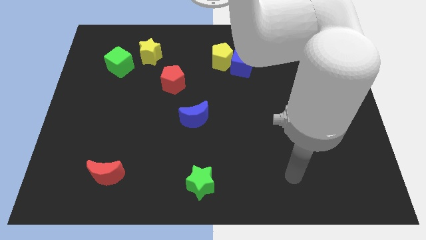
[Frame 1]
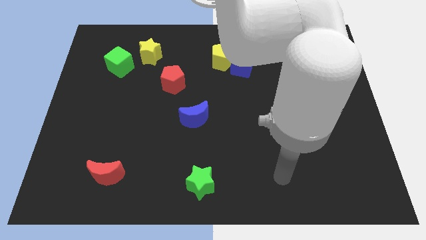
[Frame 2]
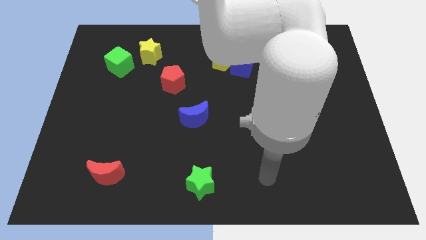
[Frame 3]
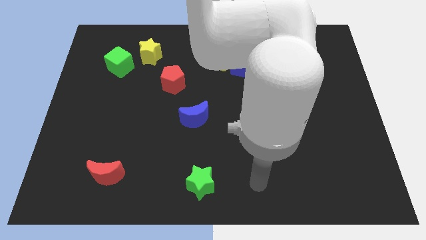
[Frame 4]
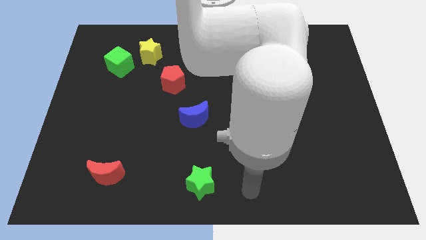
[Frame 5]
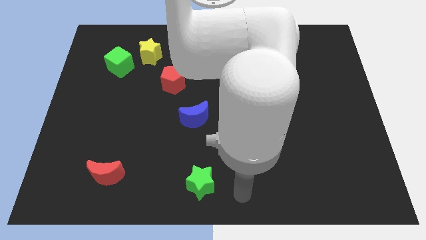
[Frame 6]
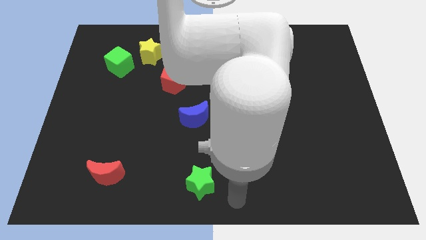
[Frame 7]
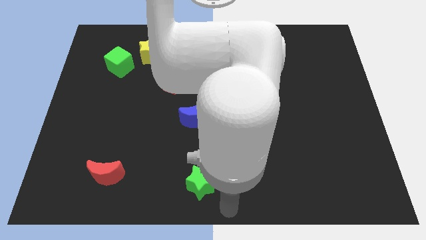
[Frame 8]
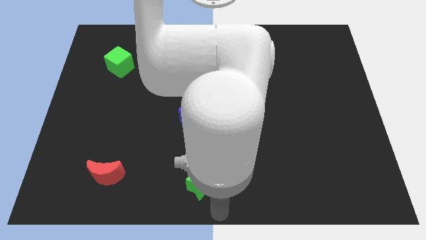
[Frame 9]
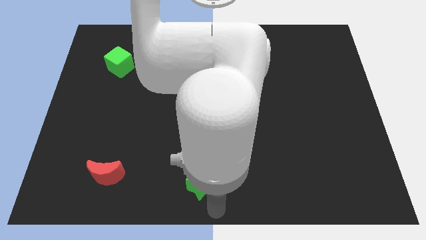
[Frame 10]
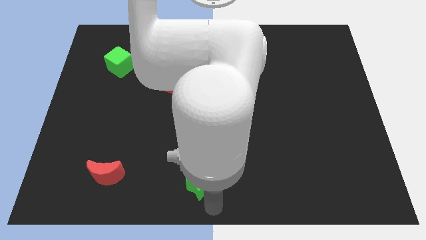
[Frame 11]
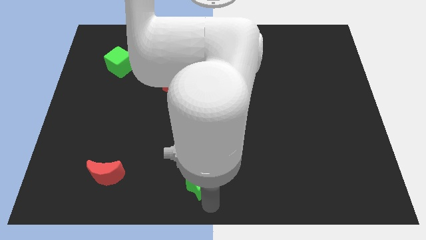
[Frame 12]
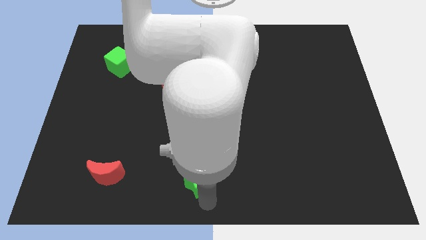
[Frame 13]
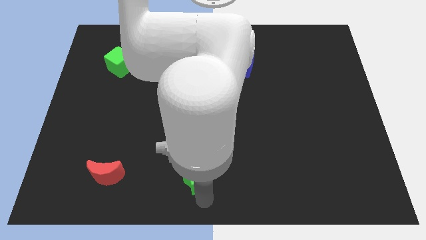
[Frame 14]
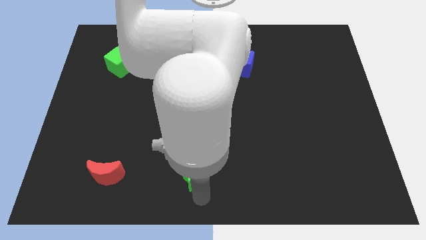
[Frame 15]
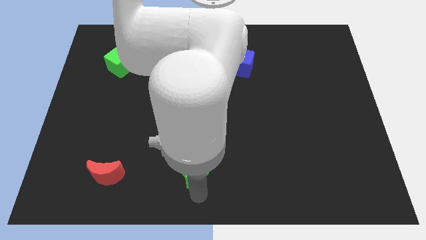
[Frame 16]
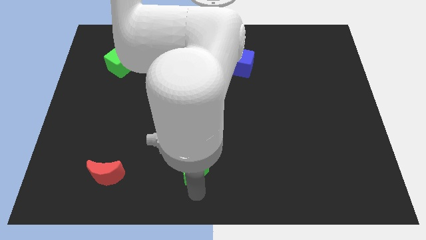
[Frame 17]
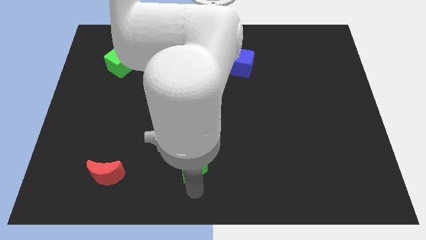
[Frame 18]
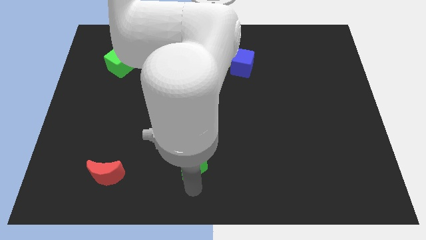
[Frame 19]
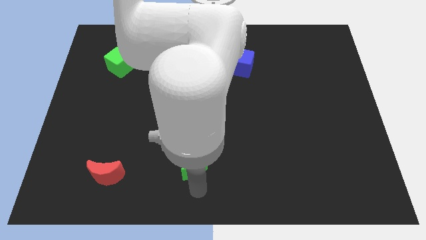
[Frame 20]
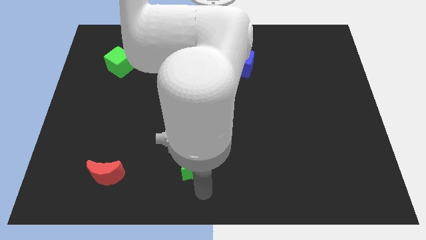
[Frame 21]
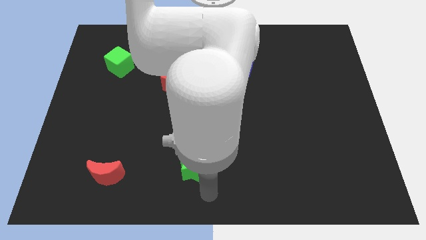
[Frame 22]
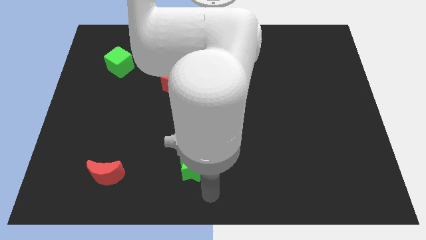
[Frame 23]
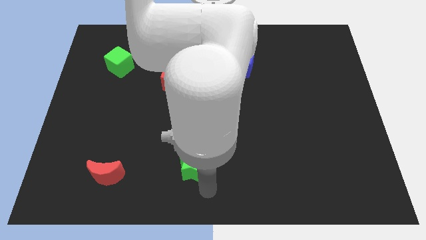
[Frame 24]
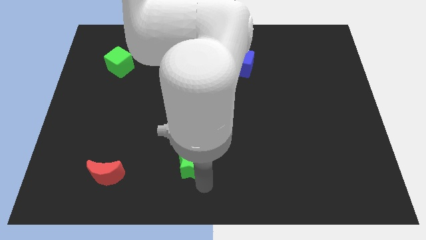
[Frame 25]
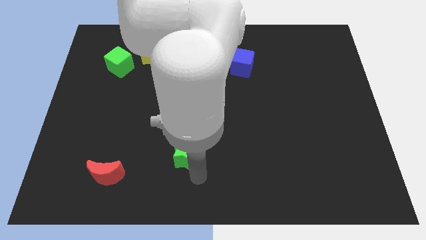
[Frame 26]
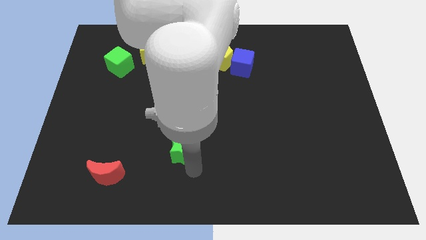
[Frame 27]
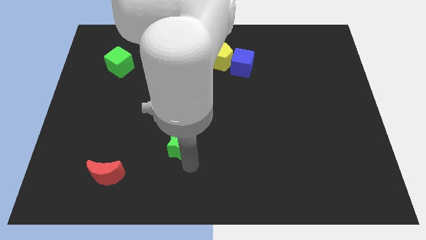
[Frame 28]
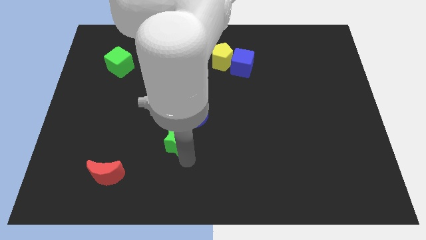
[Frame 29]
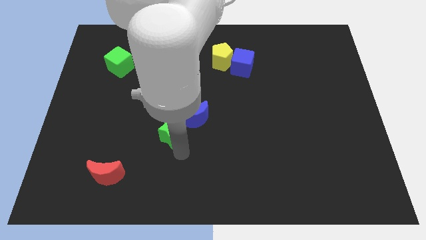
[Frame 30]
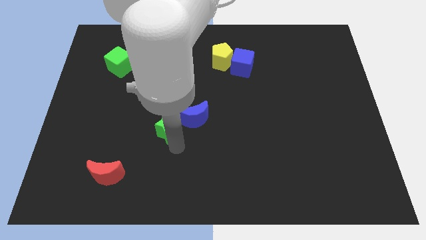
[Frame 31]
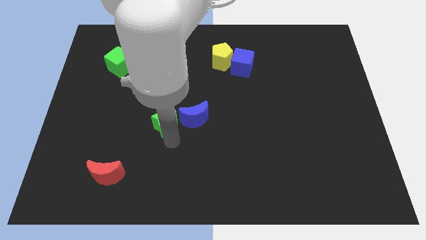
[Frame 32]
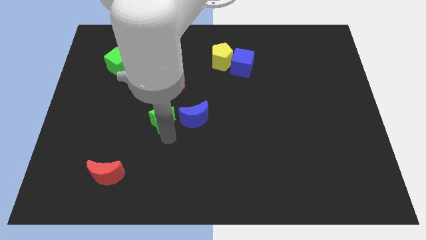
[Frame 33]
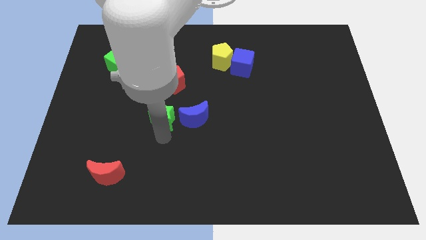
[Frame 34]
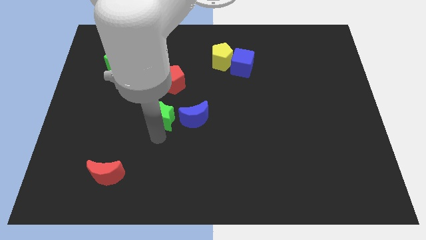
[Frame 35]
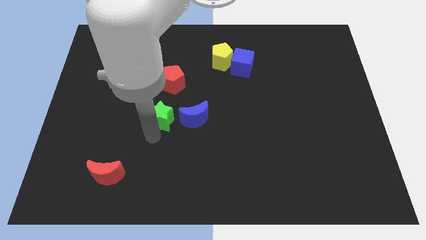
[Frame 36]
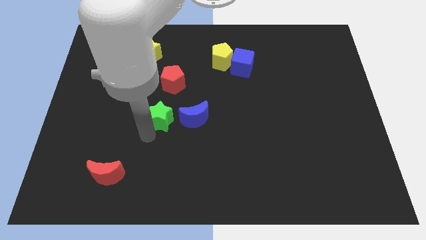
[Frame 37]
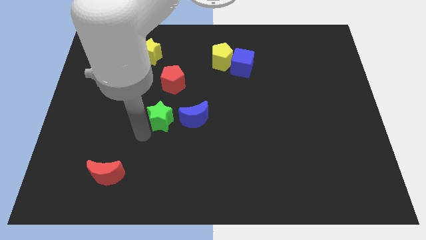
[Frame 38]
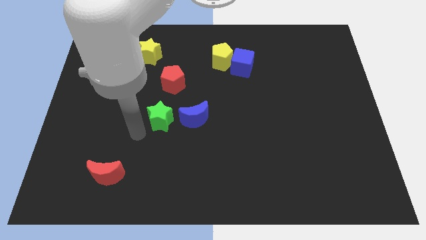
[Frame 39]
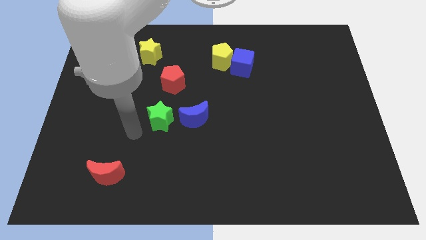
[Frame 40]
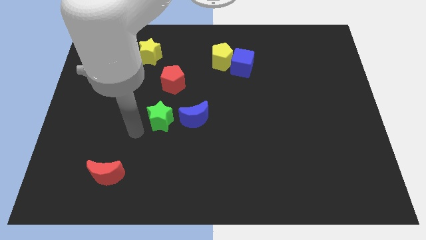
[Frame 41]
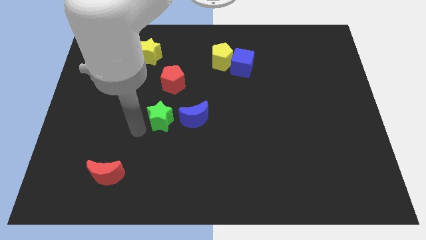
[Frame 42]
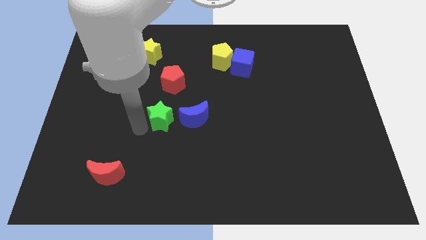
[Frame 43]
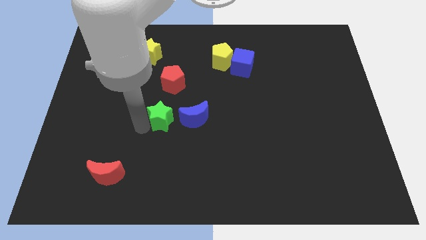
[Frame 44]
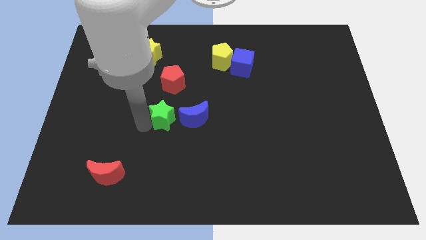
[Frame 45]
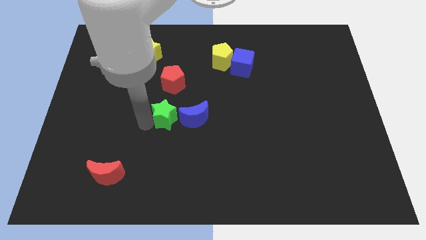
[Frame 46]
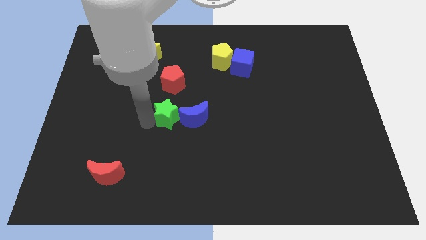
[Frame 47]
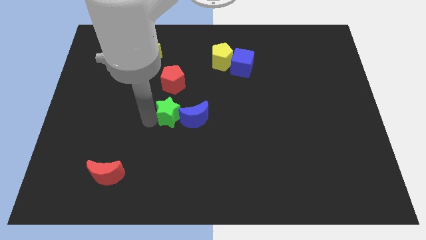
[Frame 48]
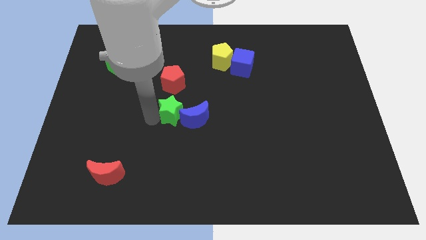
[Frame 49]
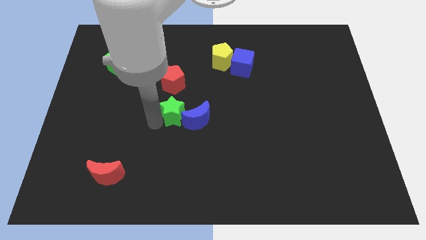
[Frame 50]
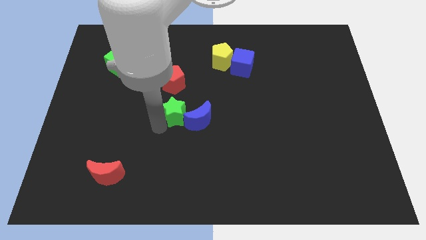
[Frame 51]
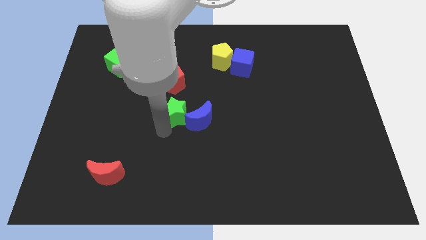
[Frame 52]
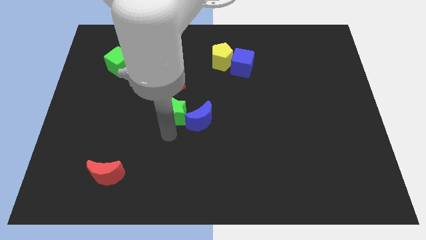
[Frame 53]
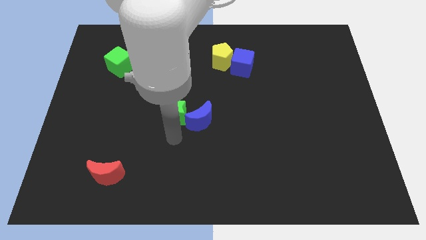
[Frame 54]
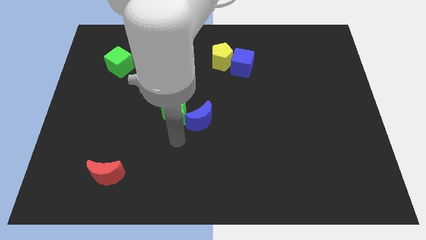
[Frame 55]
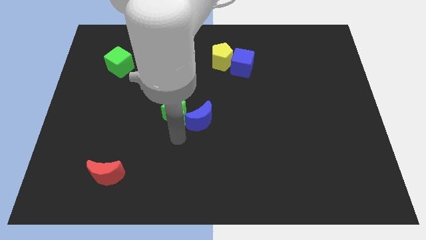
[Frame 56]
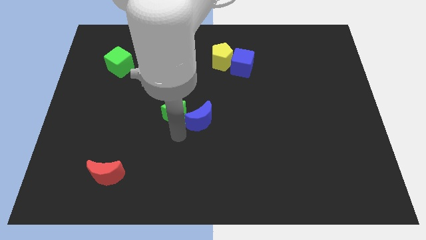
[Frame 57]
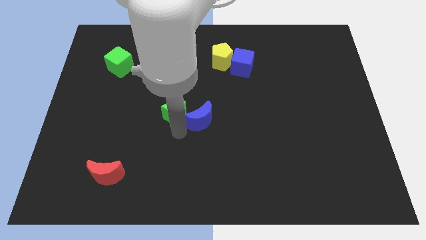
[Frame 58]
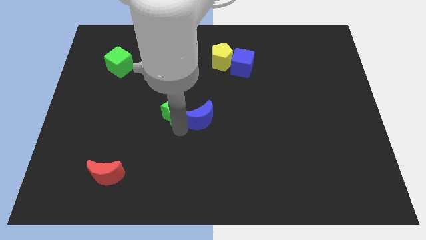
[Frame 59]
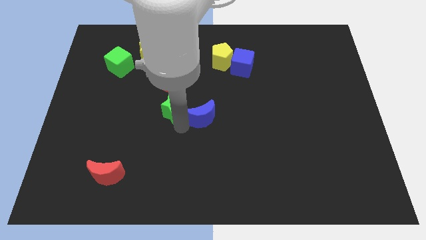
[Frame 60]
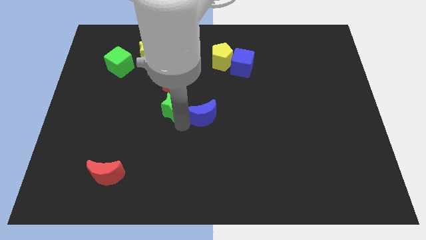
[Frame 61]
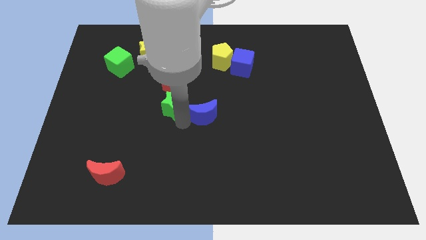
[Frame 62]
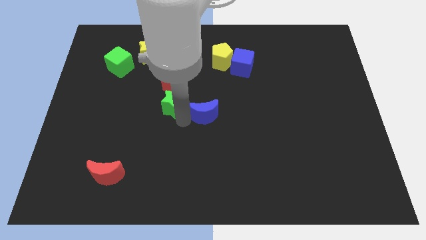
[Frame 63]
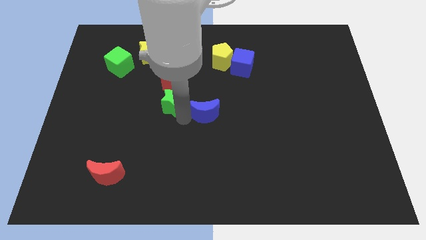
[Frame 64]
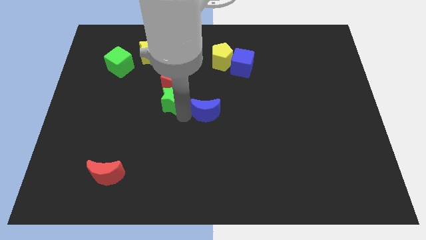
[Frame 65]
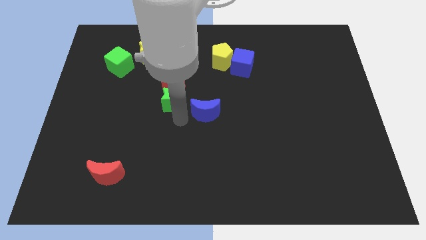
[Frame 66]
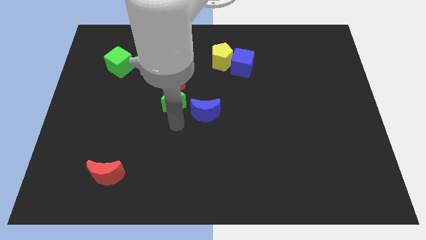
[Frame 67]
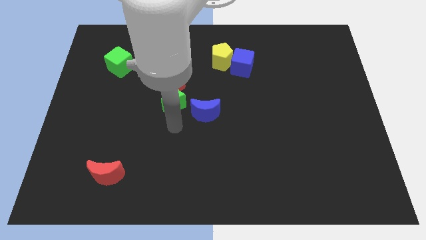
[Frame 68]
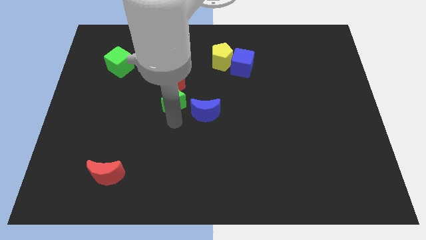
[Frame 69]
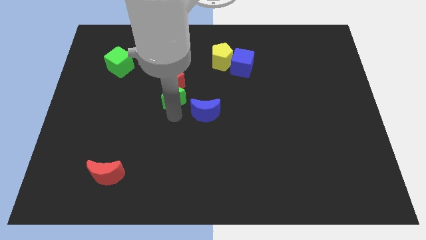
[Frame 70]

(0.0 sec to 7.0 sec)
slide the green star towards the red pentagon

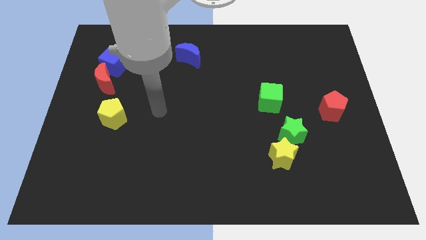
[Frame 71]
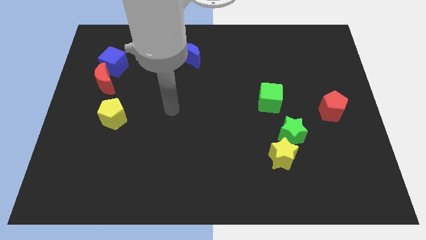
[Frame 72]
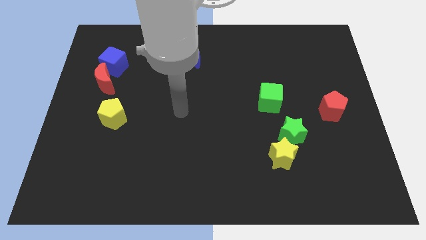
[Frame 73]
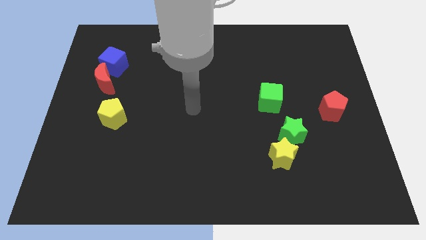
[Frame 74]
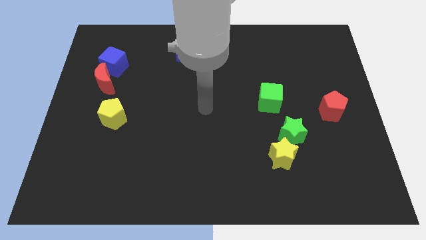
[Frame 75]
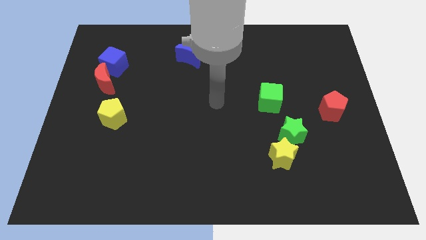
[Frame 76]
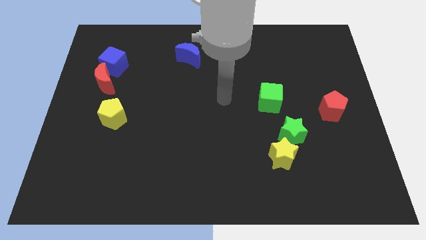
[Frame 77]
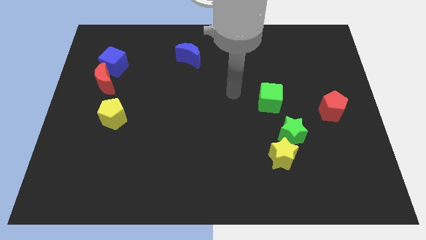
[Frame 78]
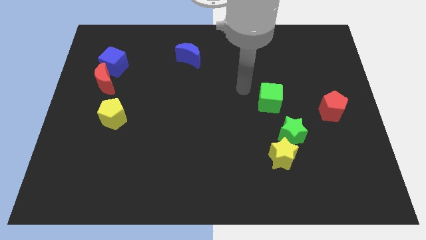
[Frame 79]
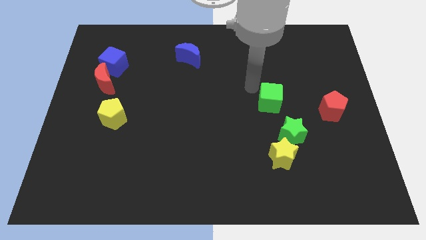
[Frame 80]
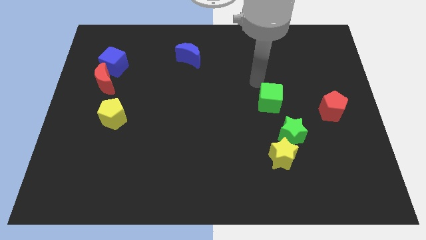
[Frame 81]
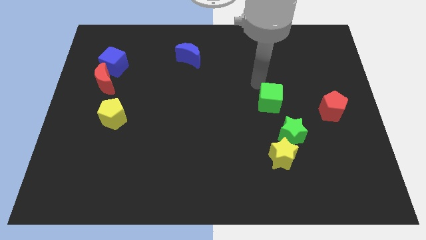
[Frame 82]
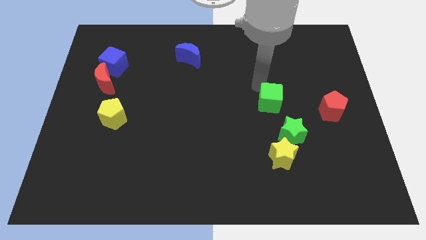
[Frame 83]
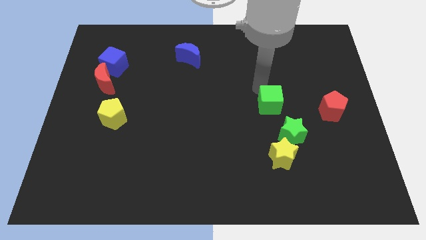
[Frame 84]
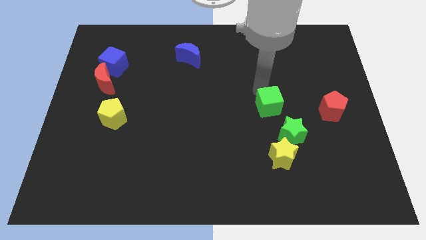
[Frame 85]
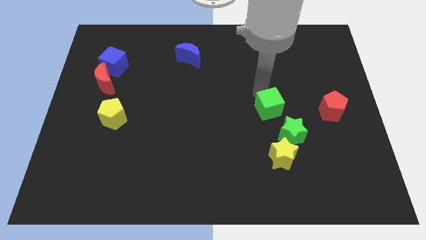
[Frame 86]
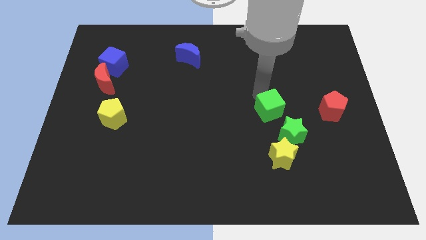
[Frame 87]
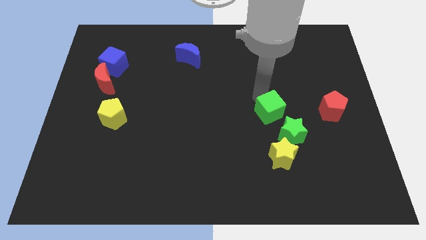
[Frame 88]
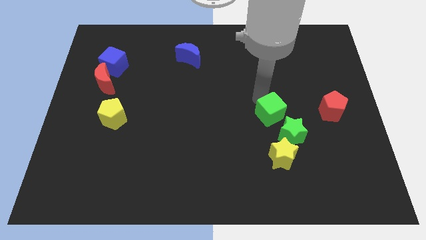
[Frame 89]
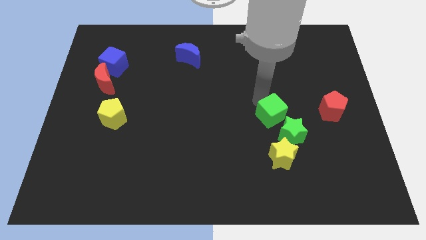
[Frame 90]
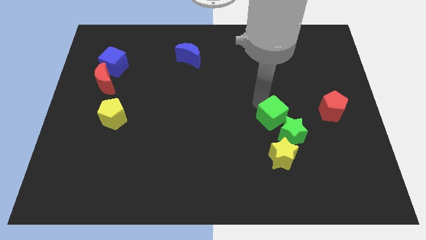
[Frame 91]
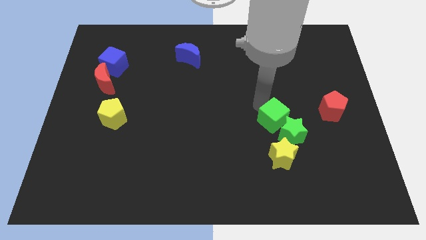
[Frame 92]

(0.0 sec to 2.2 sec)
move the green cube next to the green star
